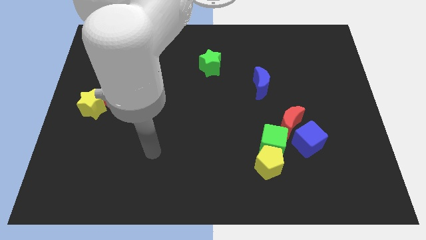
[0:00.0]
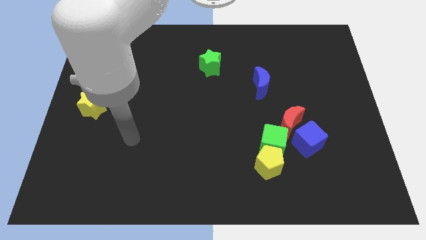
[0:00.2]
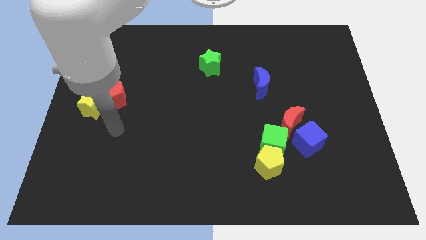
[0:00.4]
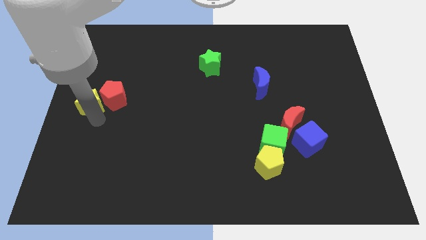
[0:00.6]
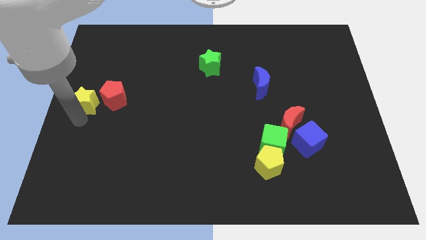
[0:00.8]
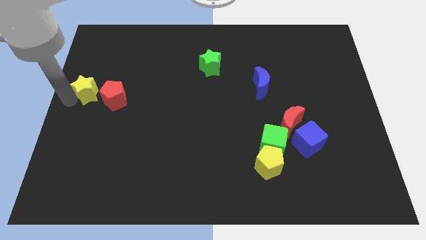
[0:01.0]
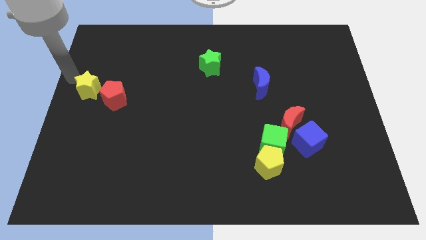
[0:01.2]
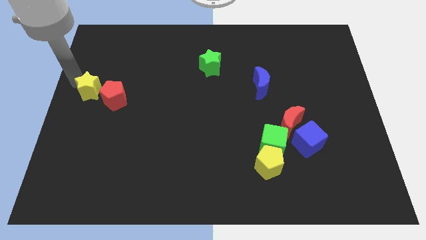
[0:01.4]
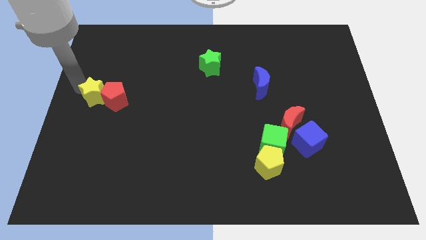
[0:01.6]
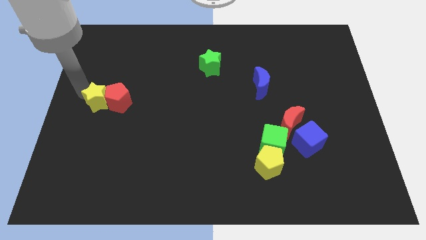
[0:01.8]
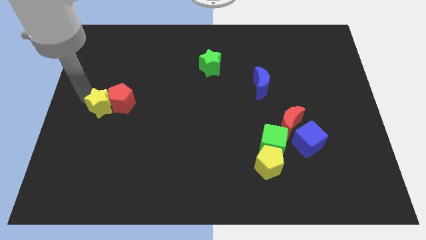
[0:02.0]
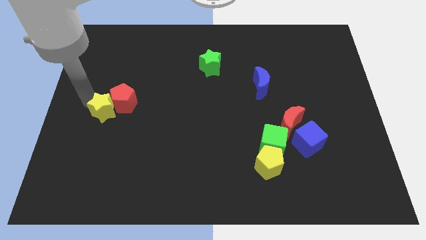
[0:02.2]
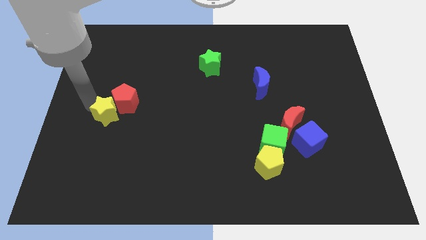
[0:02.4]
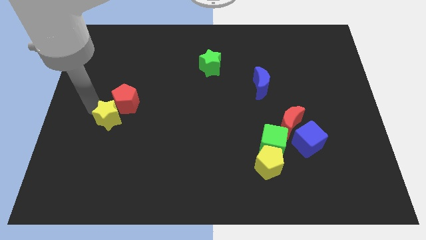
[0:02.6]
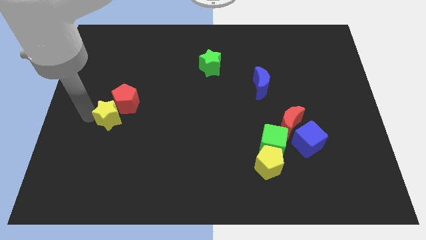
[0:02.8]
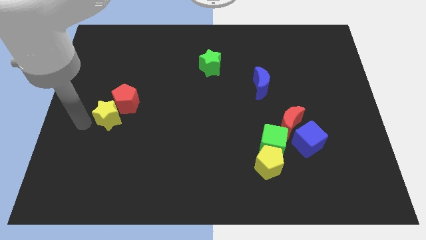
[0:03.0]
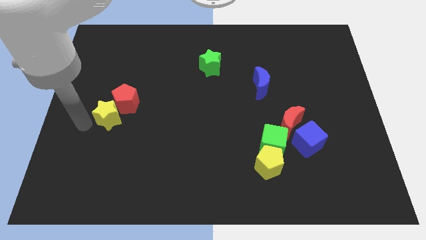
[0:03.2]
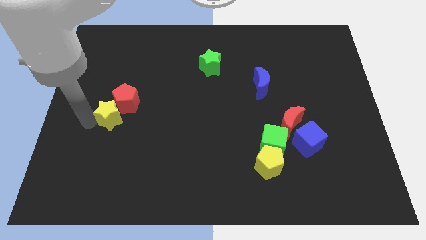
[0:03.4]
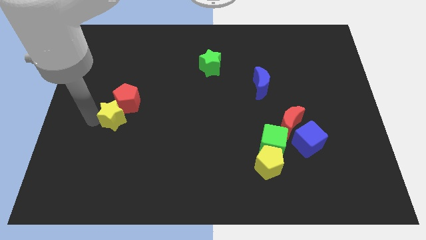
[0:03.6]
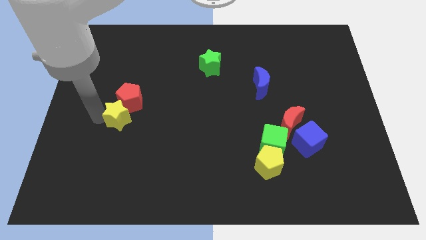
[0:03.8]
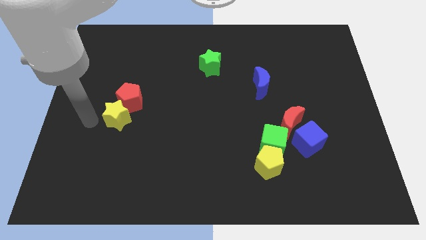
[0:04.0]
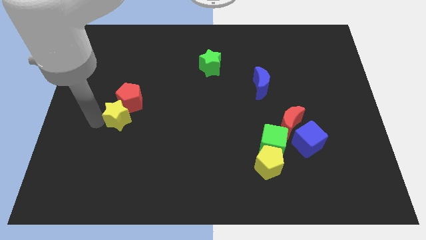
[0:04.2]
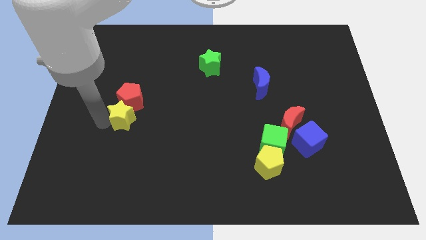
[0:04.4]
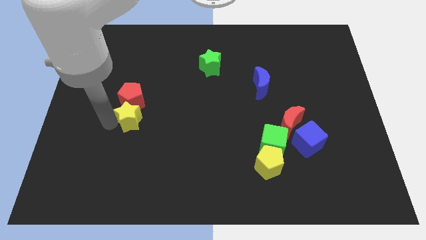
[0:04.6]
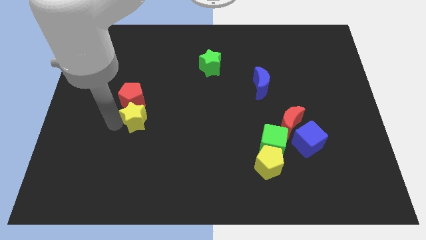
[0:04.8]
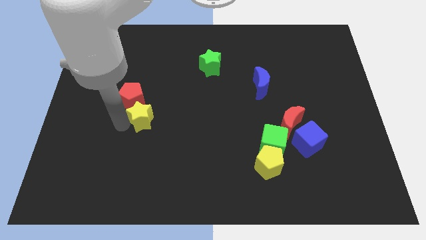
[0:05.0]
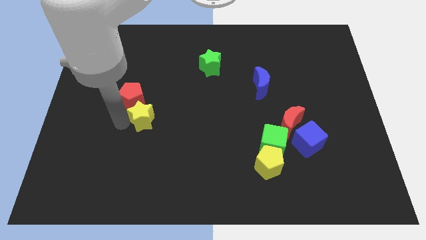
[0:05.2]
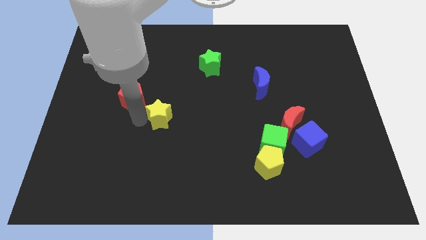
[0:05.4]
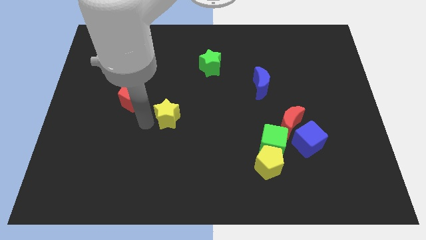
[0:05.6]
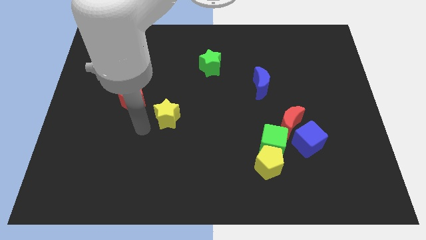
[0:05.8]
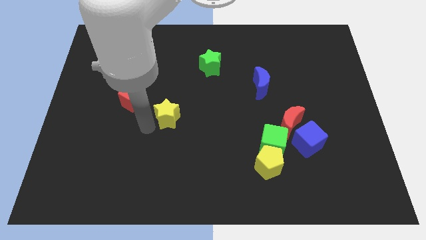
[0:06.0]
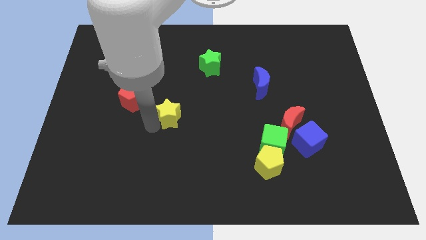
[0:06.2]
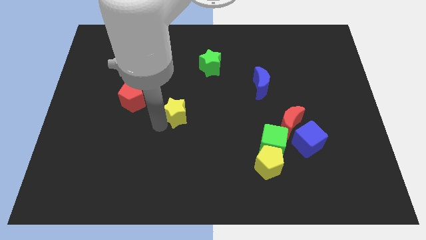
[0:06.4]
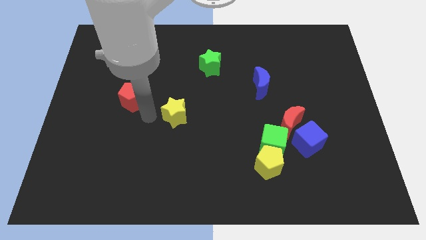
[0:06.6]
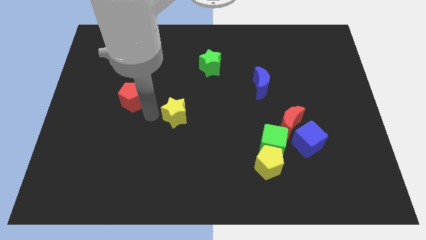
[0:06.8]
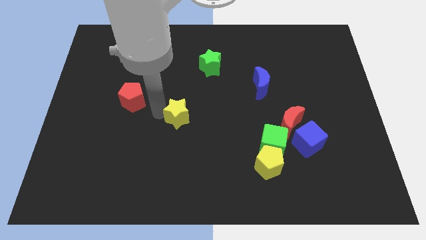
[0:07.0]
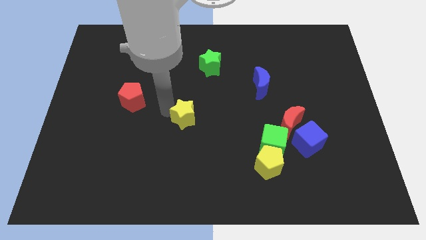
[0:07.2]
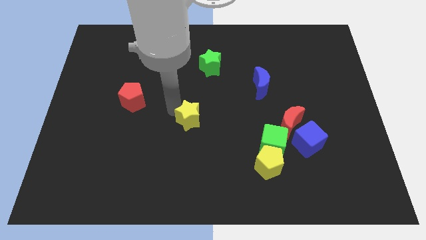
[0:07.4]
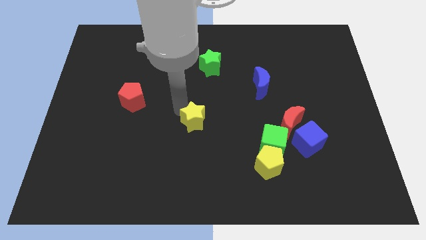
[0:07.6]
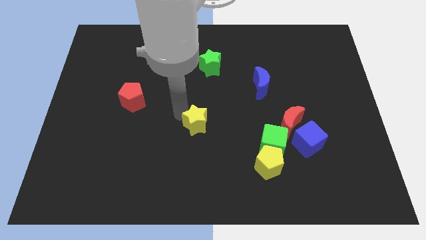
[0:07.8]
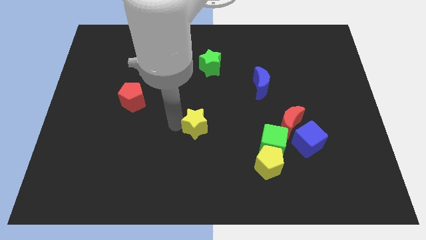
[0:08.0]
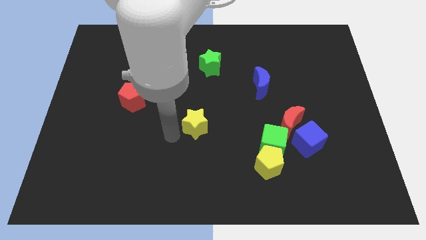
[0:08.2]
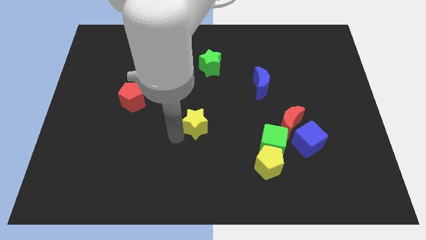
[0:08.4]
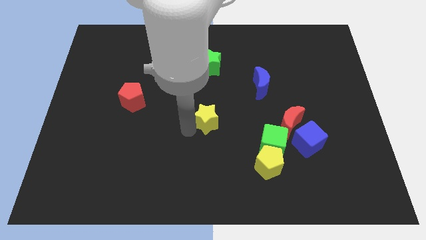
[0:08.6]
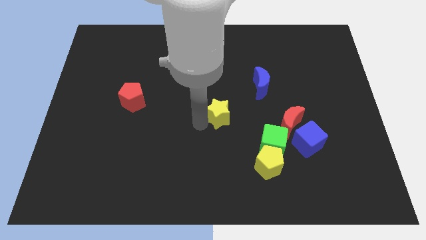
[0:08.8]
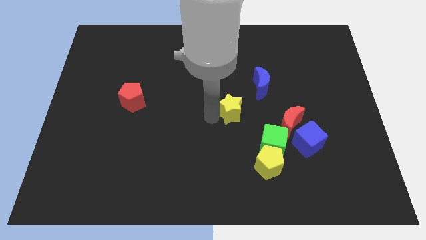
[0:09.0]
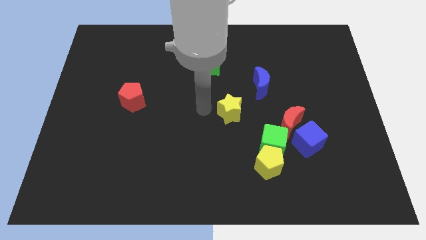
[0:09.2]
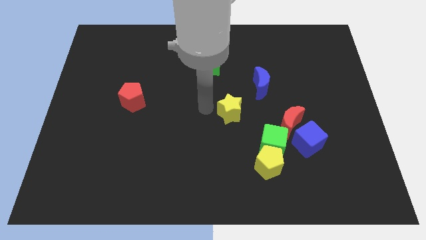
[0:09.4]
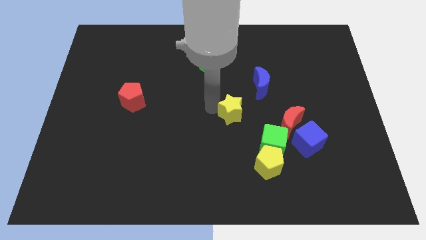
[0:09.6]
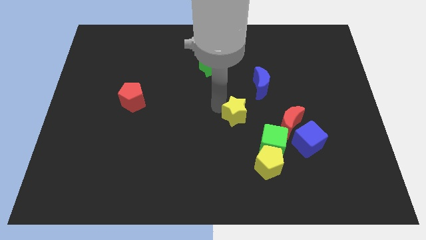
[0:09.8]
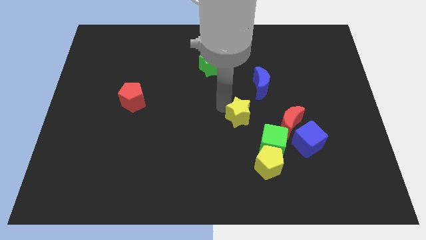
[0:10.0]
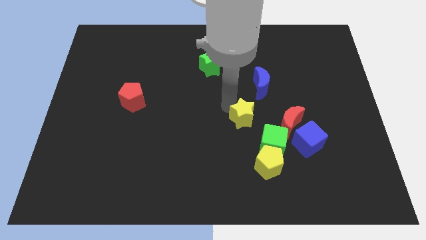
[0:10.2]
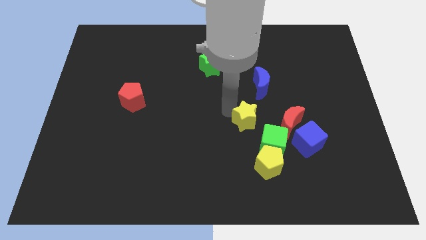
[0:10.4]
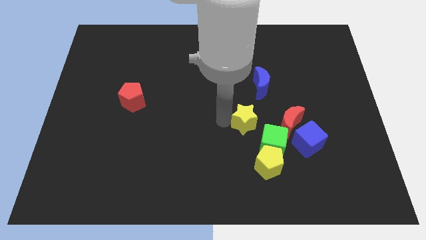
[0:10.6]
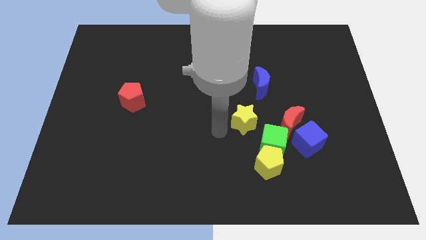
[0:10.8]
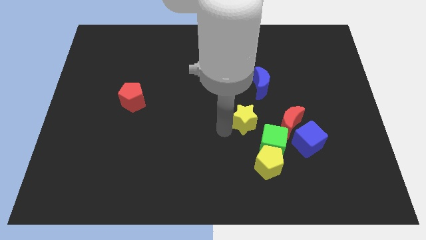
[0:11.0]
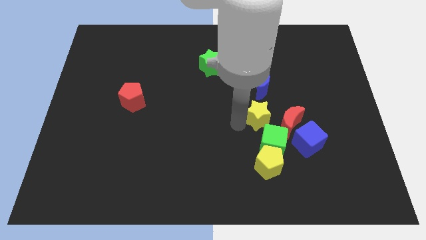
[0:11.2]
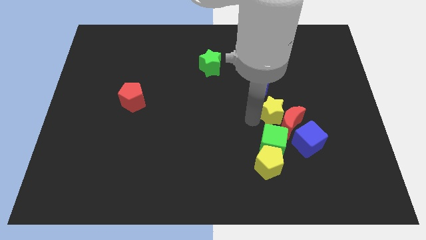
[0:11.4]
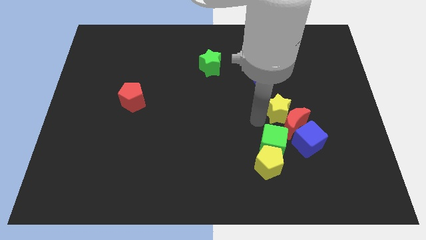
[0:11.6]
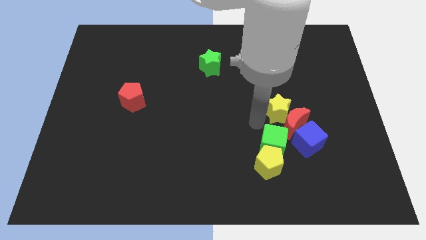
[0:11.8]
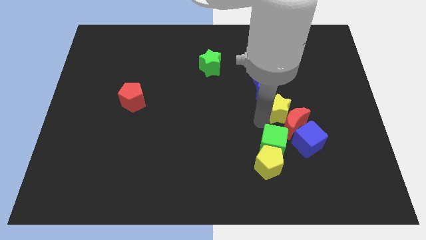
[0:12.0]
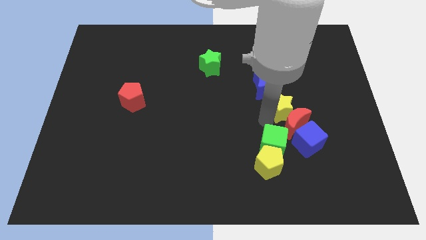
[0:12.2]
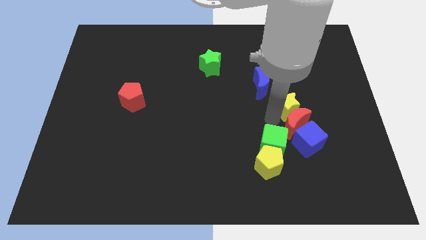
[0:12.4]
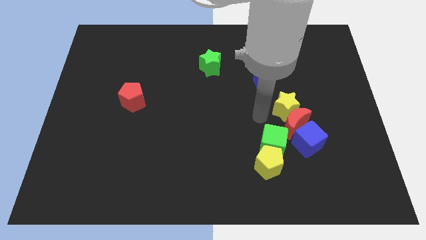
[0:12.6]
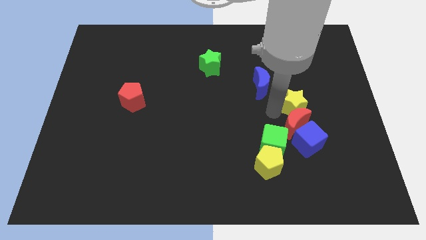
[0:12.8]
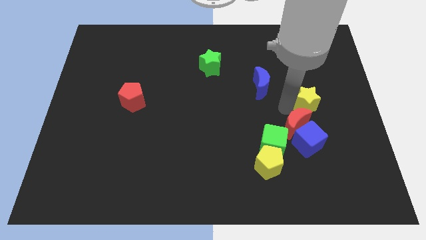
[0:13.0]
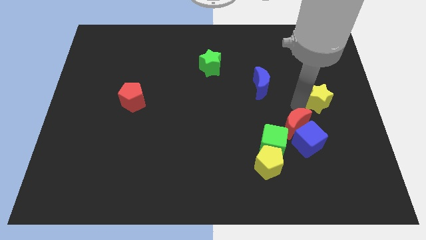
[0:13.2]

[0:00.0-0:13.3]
slide the yellow star to the center right
